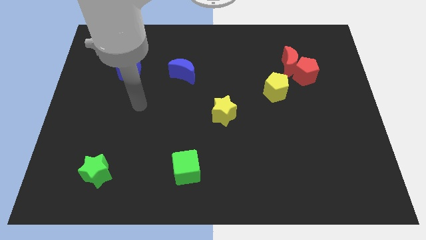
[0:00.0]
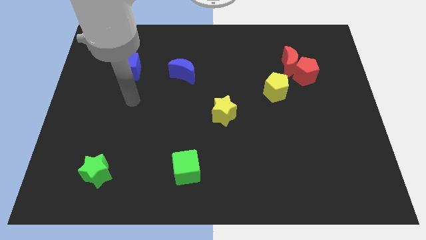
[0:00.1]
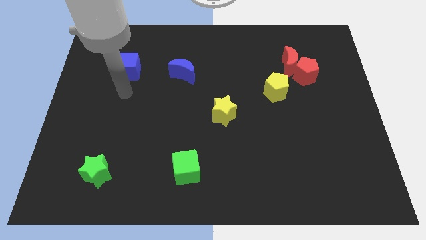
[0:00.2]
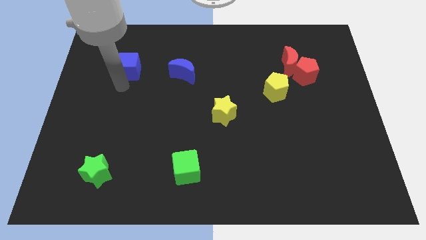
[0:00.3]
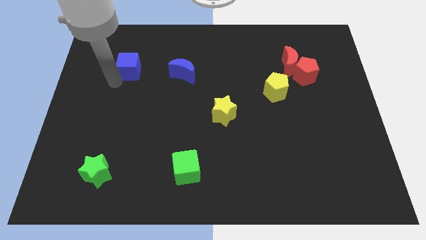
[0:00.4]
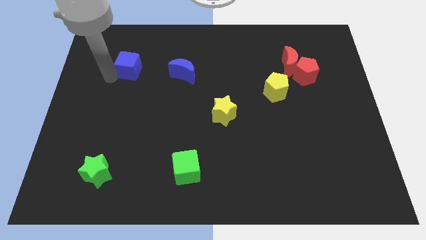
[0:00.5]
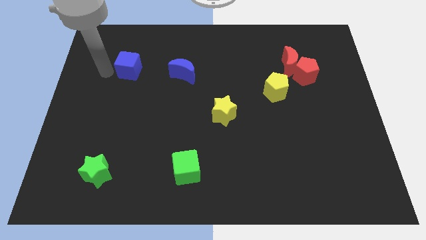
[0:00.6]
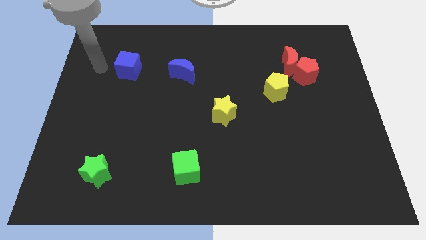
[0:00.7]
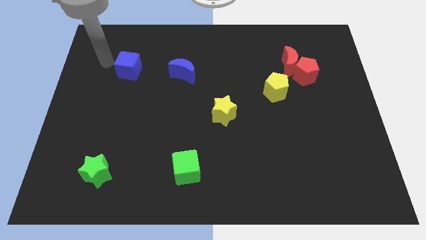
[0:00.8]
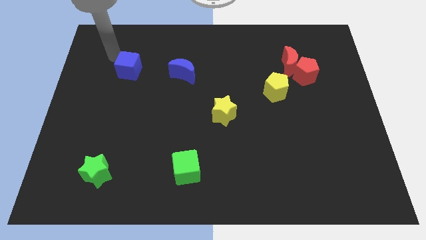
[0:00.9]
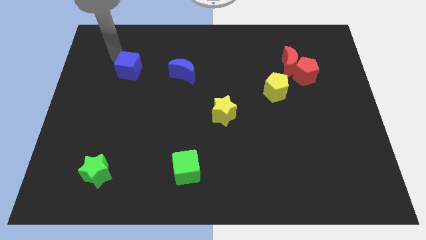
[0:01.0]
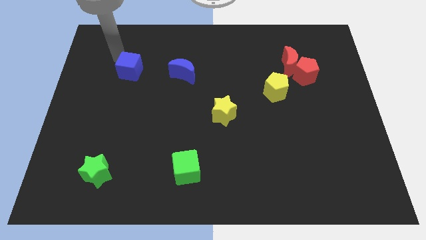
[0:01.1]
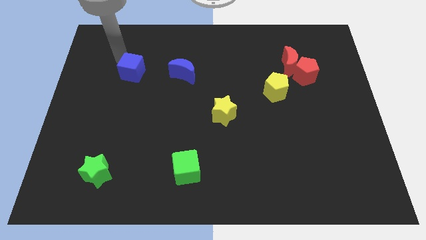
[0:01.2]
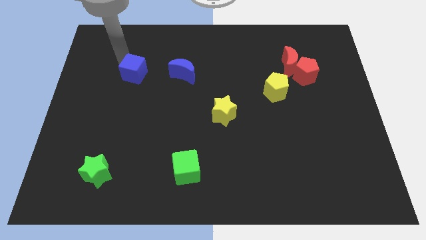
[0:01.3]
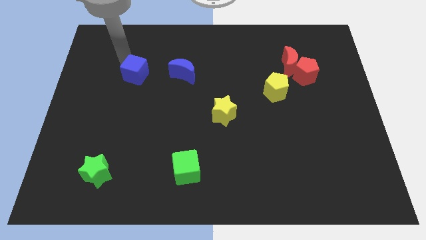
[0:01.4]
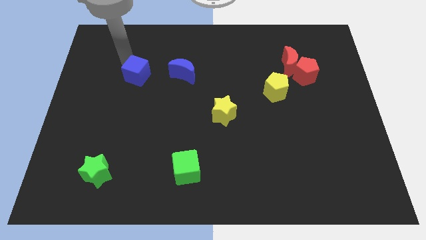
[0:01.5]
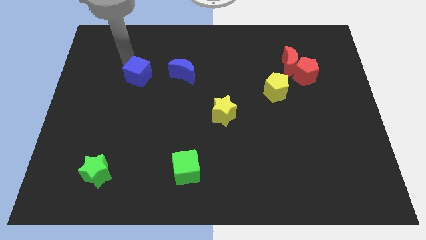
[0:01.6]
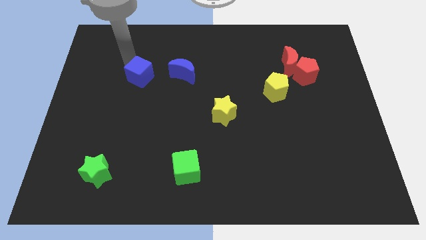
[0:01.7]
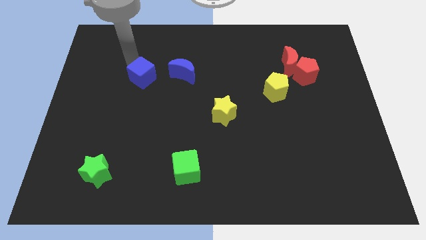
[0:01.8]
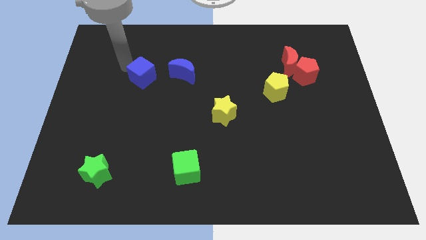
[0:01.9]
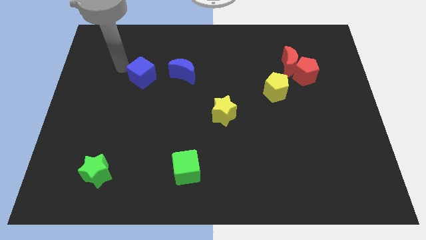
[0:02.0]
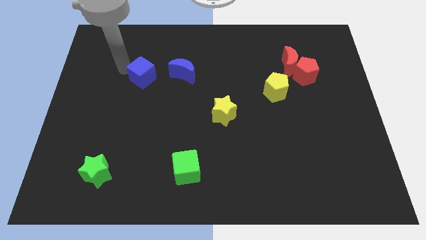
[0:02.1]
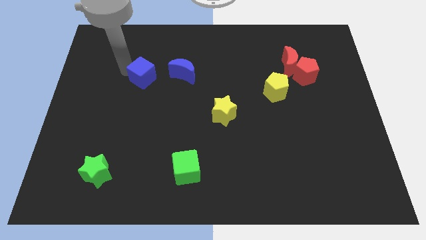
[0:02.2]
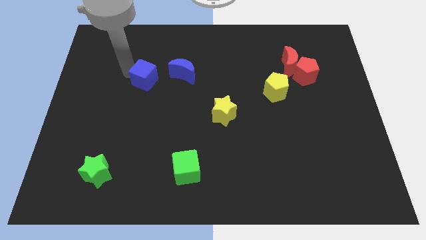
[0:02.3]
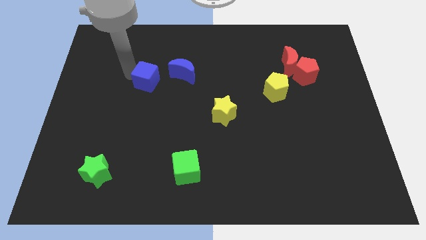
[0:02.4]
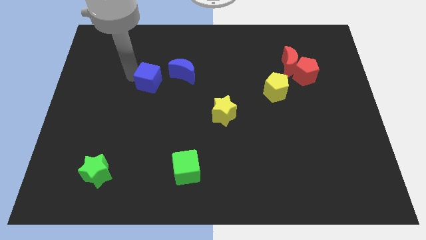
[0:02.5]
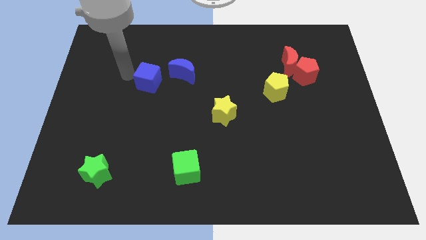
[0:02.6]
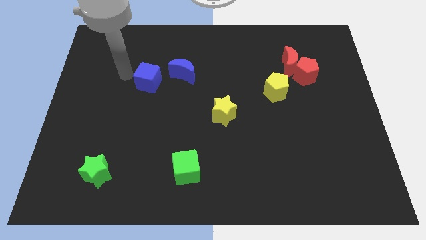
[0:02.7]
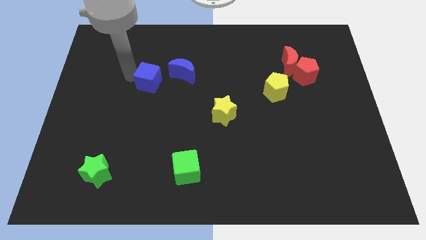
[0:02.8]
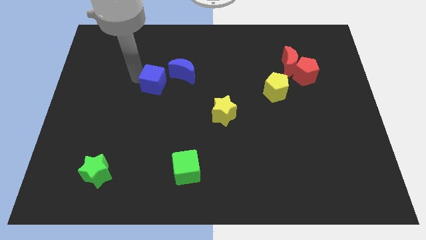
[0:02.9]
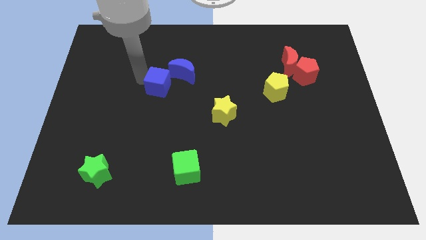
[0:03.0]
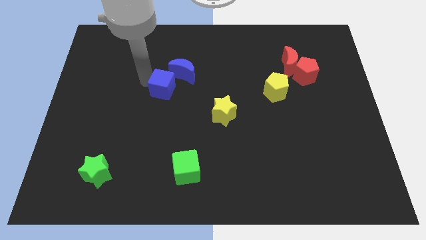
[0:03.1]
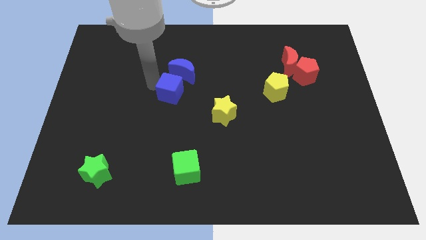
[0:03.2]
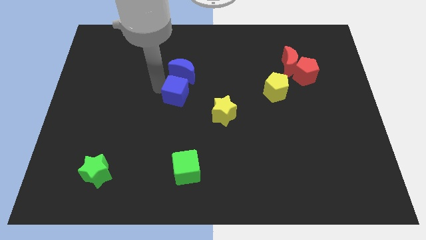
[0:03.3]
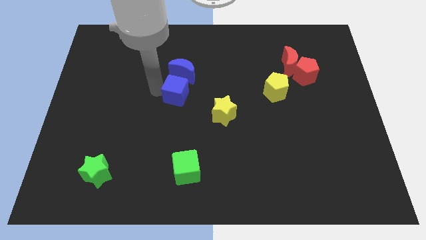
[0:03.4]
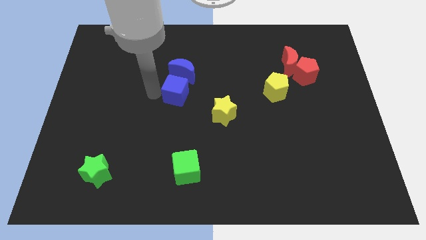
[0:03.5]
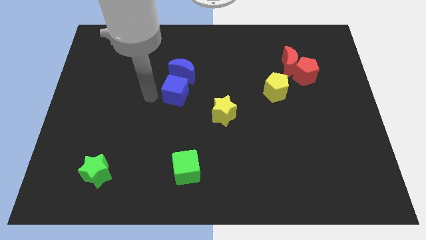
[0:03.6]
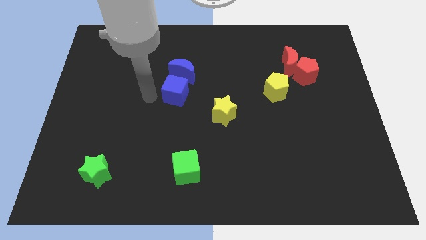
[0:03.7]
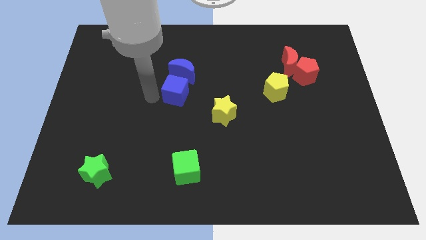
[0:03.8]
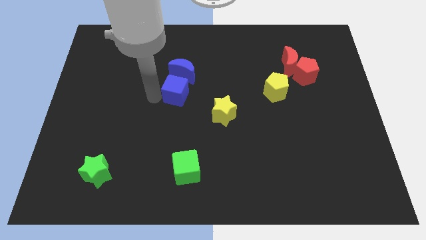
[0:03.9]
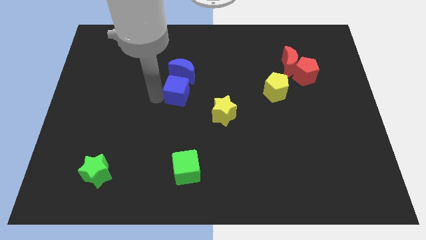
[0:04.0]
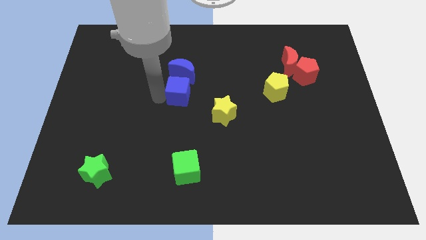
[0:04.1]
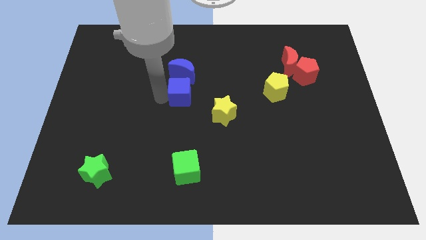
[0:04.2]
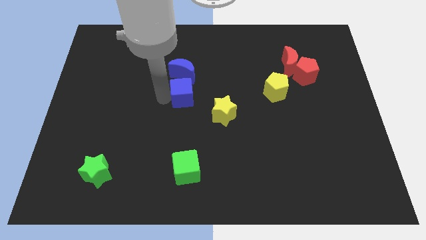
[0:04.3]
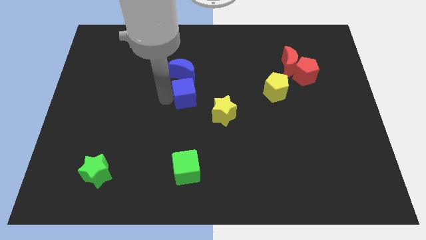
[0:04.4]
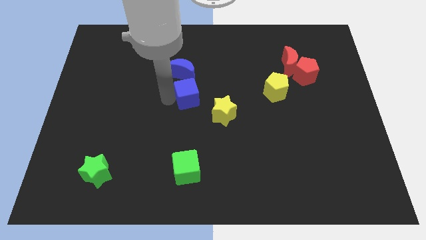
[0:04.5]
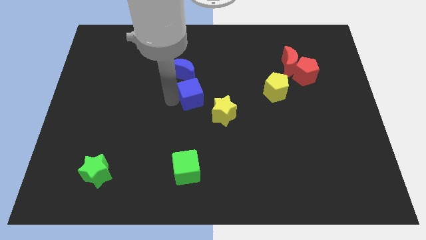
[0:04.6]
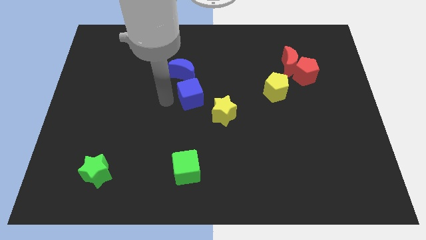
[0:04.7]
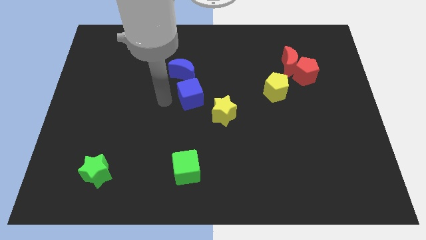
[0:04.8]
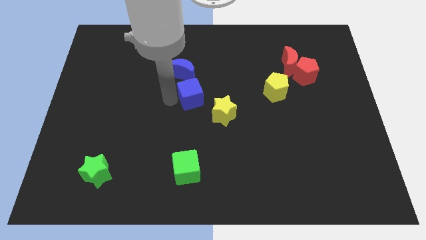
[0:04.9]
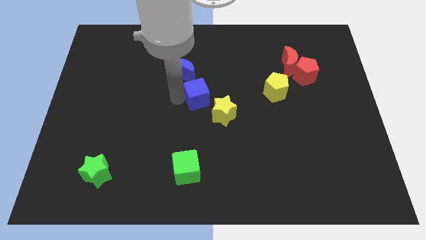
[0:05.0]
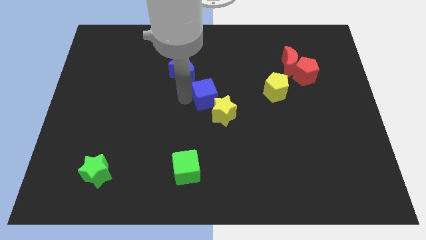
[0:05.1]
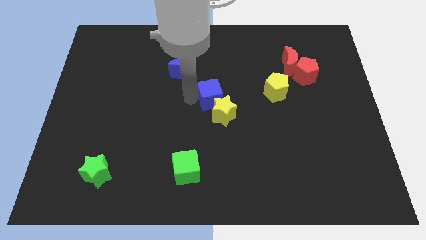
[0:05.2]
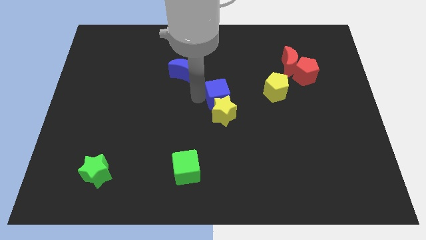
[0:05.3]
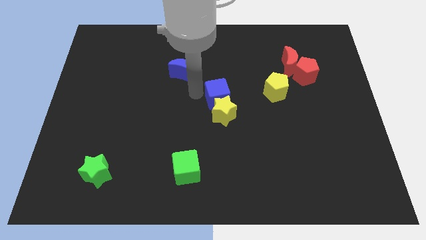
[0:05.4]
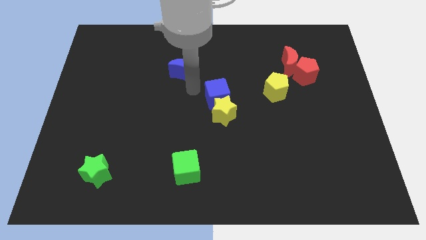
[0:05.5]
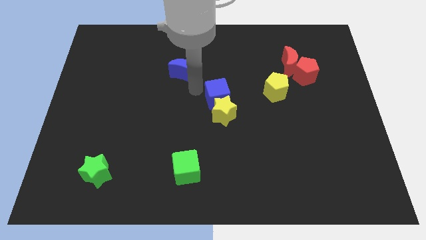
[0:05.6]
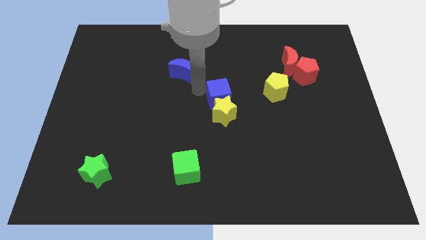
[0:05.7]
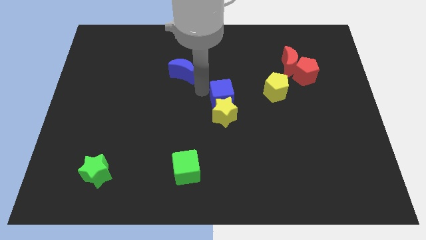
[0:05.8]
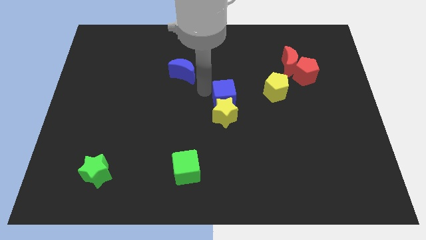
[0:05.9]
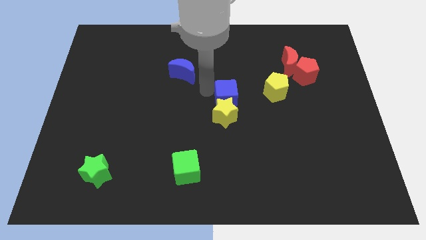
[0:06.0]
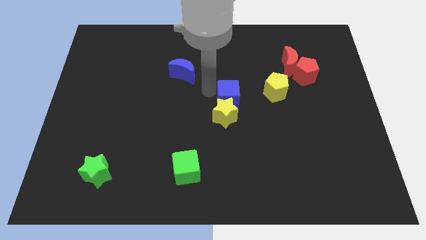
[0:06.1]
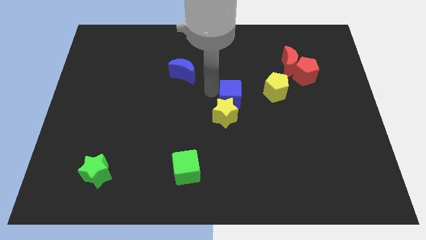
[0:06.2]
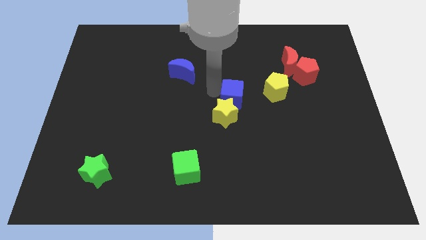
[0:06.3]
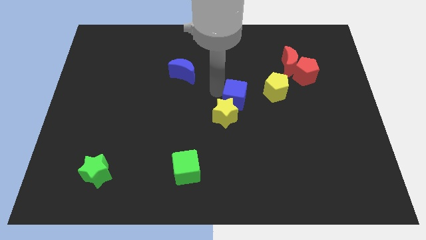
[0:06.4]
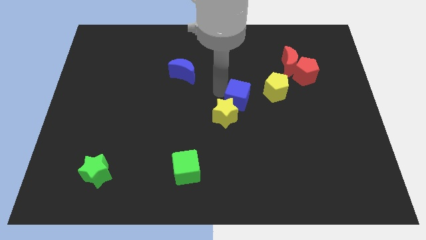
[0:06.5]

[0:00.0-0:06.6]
push the blue cube to the bottom left side of the yellow pentagon

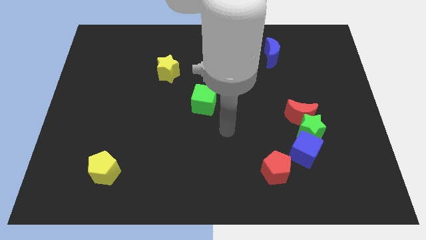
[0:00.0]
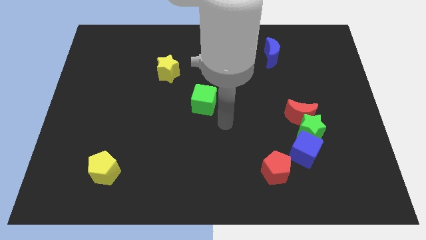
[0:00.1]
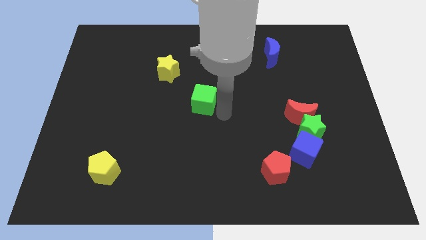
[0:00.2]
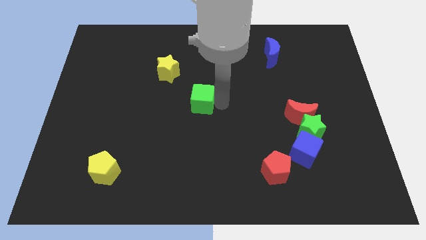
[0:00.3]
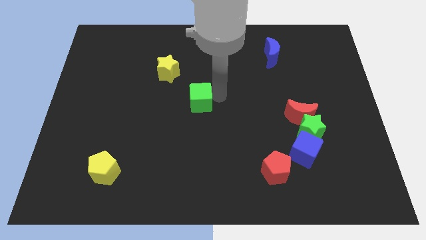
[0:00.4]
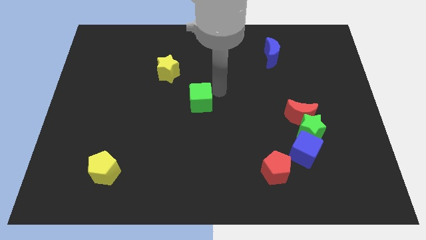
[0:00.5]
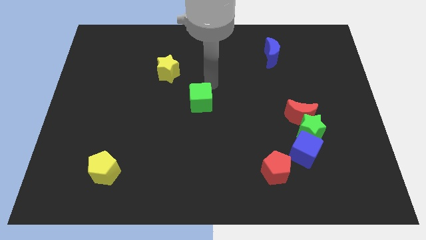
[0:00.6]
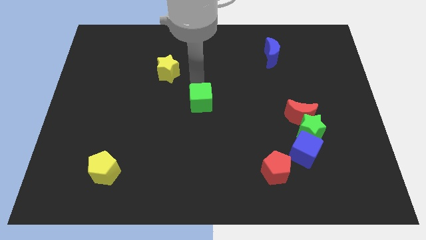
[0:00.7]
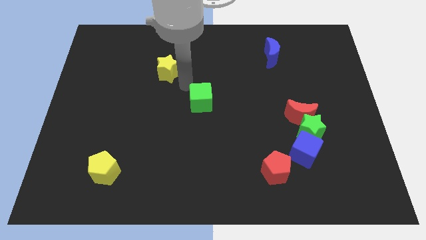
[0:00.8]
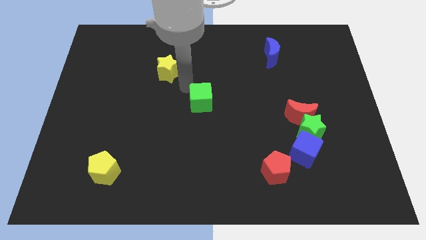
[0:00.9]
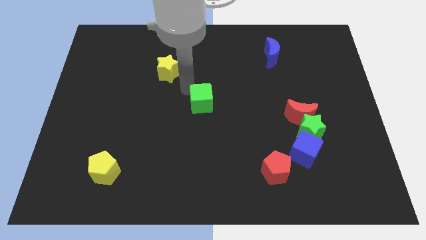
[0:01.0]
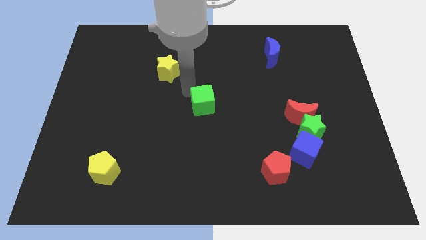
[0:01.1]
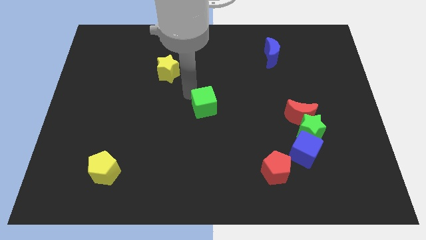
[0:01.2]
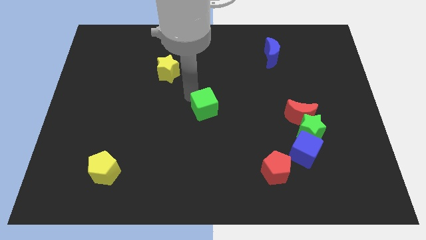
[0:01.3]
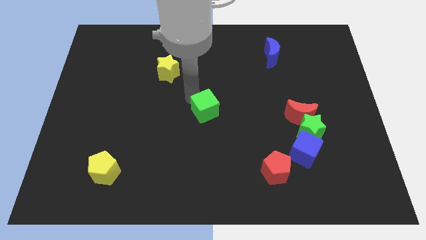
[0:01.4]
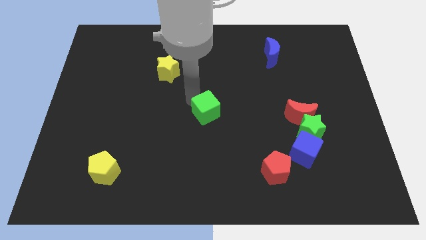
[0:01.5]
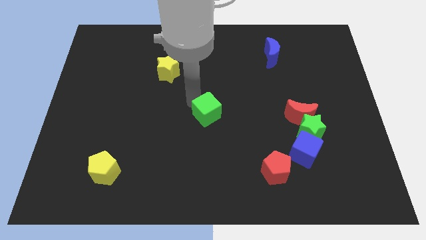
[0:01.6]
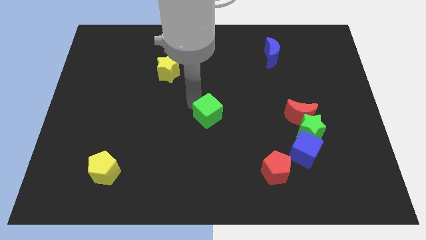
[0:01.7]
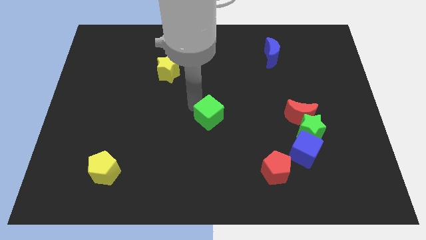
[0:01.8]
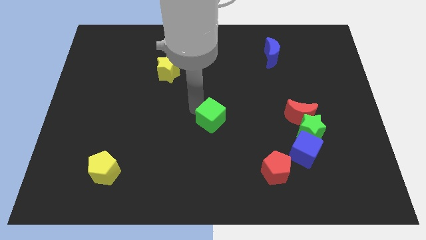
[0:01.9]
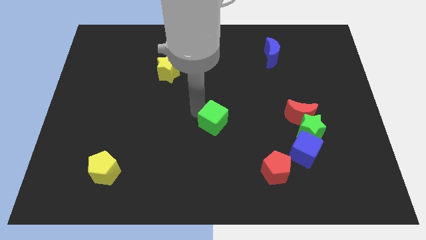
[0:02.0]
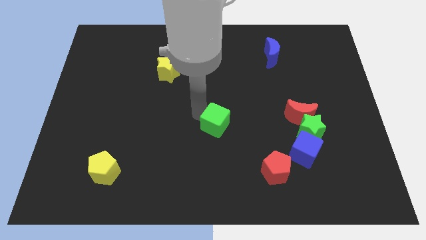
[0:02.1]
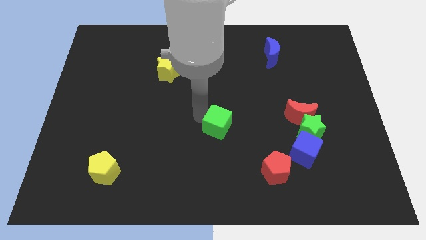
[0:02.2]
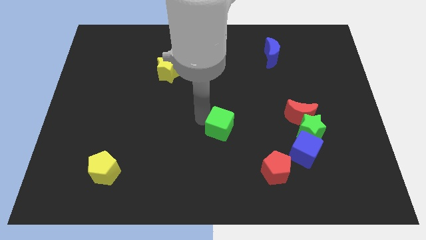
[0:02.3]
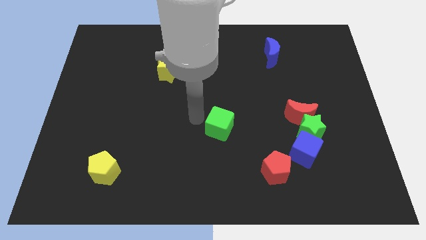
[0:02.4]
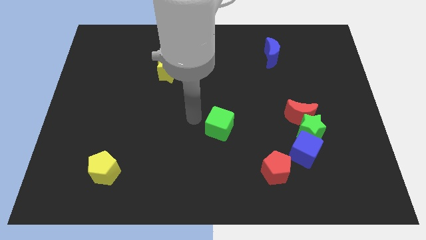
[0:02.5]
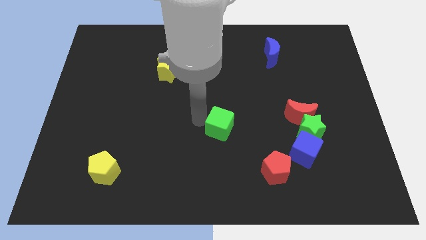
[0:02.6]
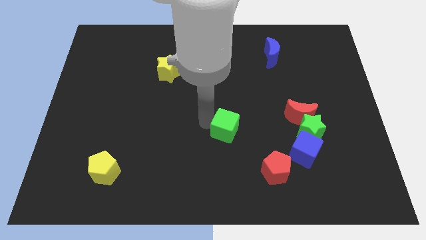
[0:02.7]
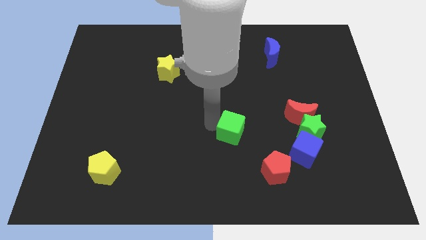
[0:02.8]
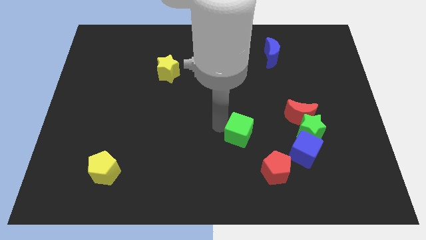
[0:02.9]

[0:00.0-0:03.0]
move the green cube to the top left side of the red pentagon
